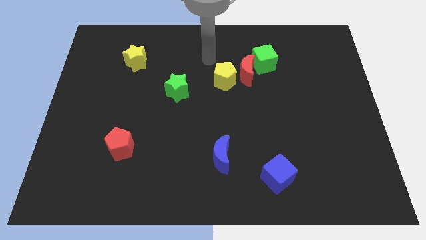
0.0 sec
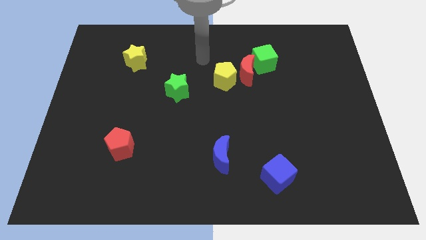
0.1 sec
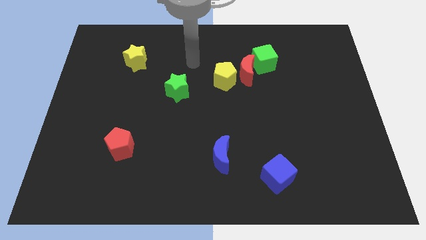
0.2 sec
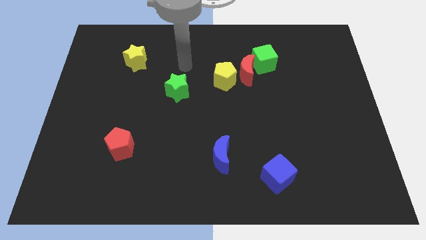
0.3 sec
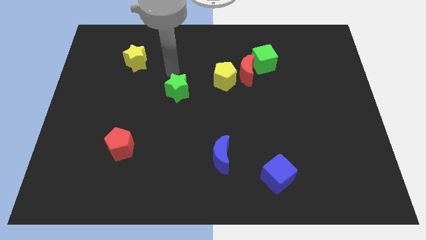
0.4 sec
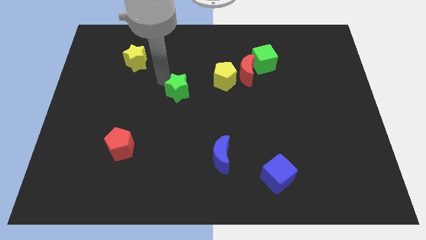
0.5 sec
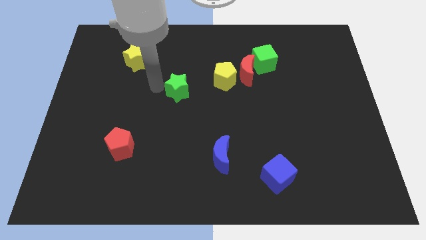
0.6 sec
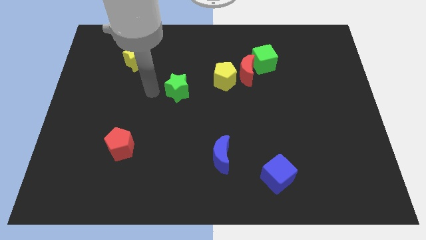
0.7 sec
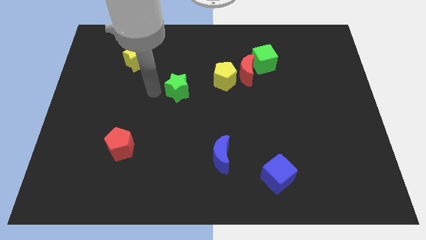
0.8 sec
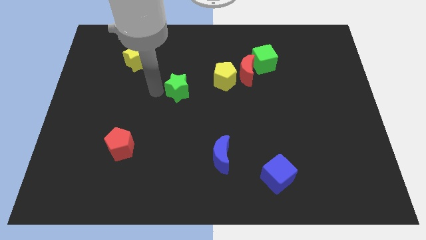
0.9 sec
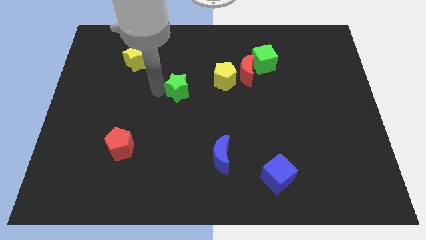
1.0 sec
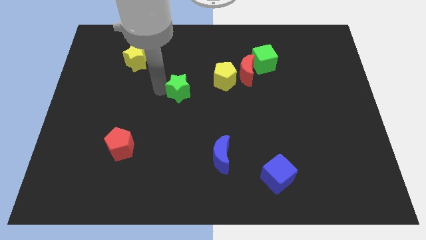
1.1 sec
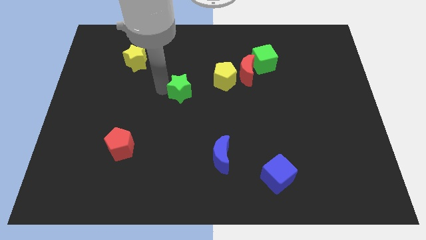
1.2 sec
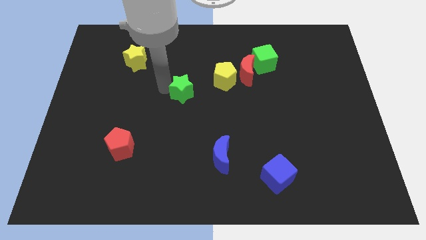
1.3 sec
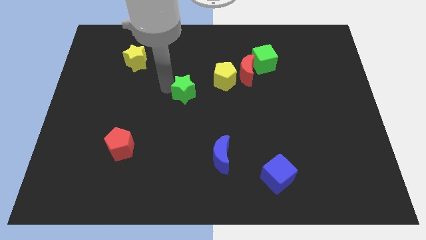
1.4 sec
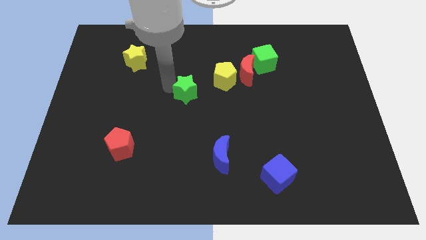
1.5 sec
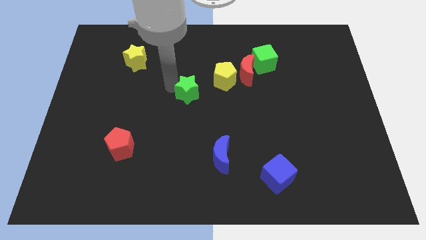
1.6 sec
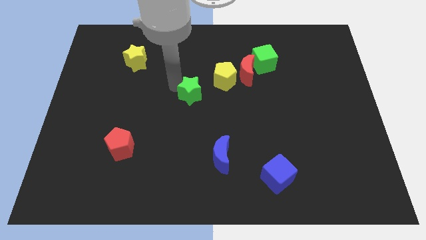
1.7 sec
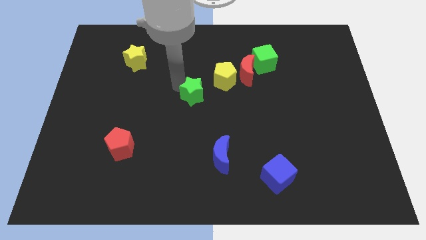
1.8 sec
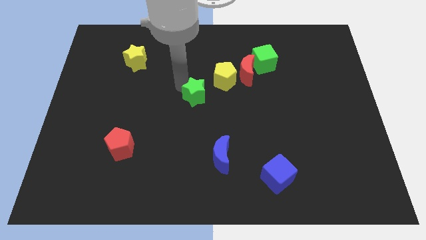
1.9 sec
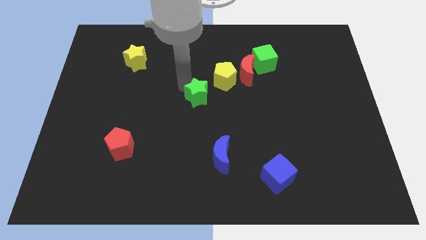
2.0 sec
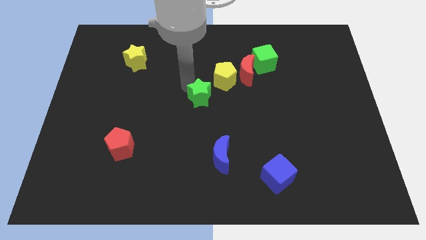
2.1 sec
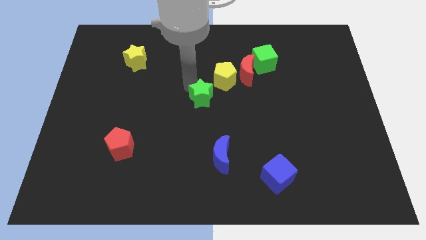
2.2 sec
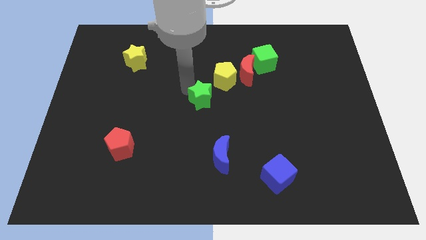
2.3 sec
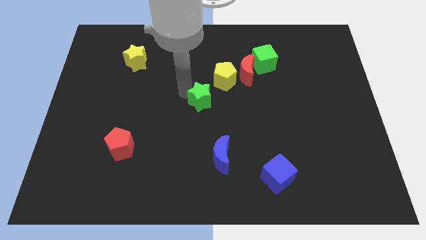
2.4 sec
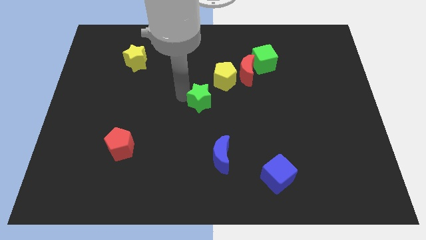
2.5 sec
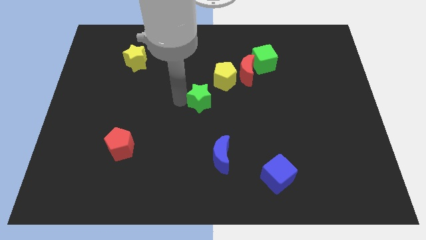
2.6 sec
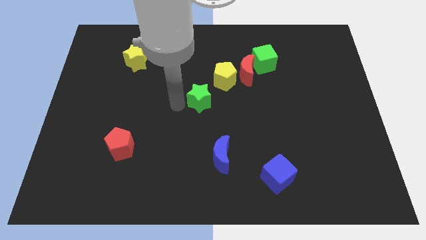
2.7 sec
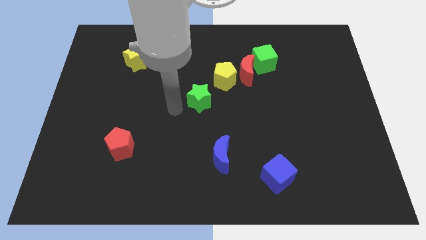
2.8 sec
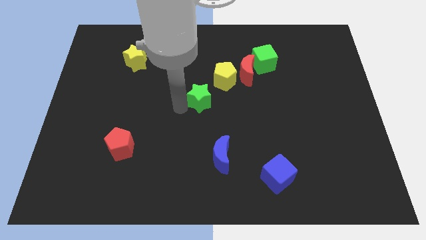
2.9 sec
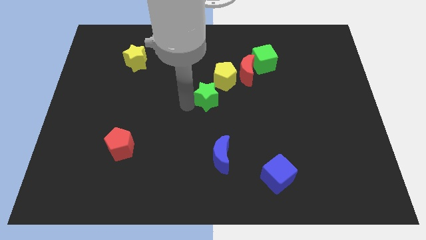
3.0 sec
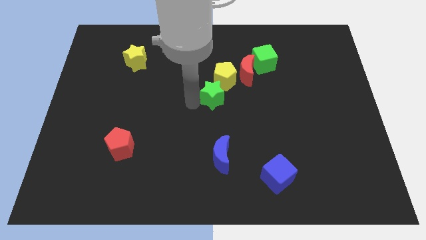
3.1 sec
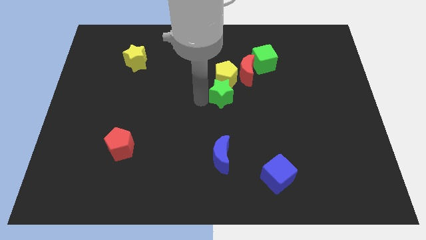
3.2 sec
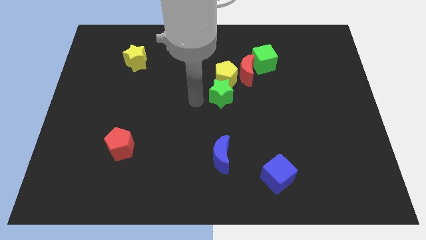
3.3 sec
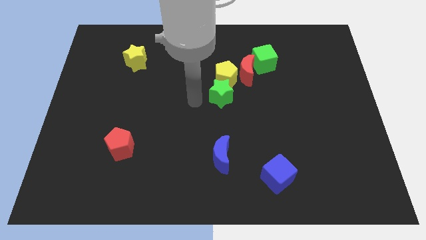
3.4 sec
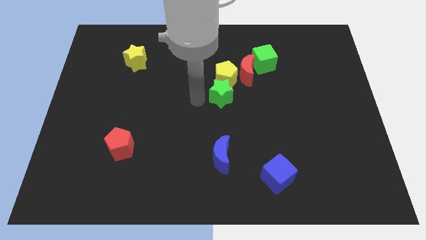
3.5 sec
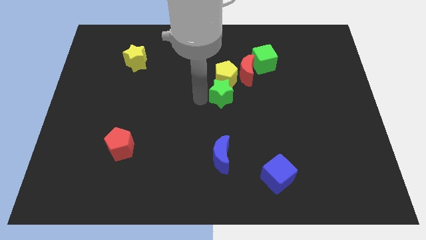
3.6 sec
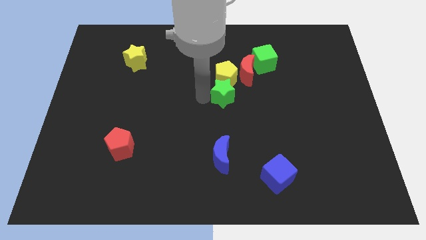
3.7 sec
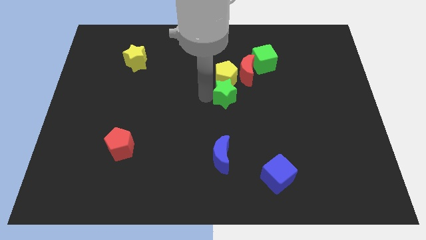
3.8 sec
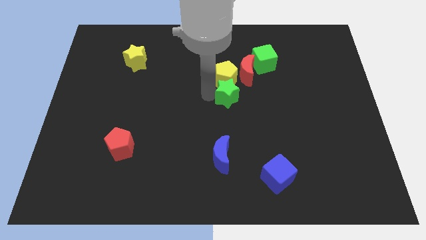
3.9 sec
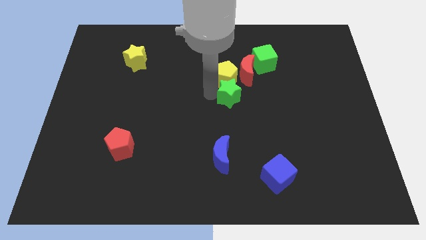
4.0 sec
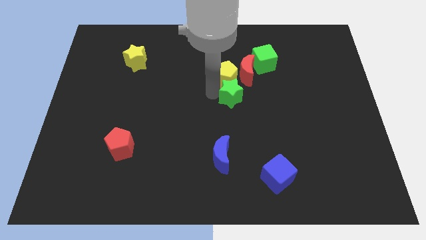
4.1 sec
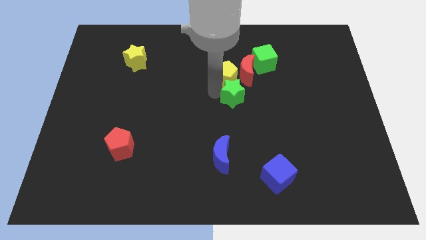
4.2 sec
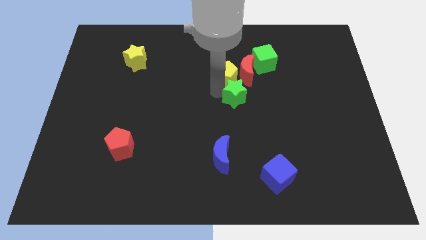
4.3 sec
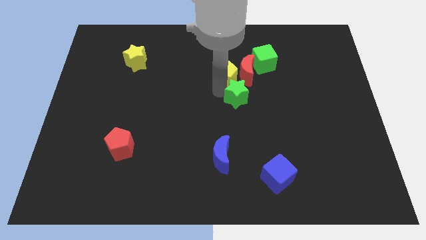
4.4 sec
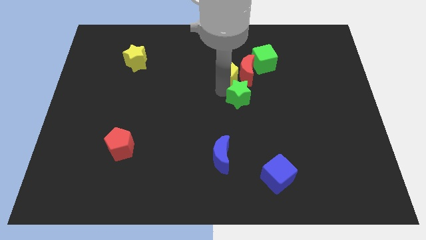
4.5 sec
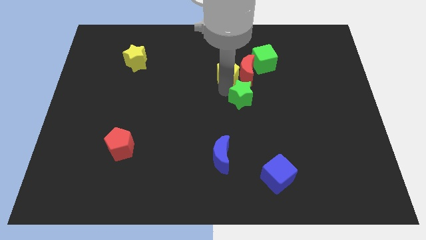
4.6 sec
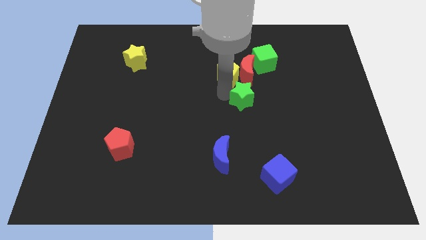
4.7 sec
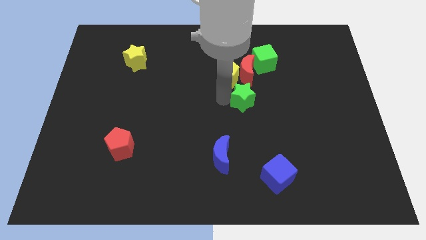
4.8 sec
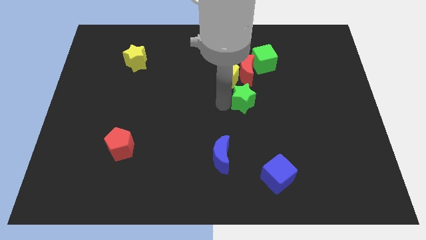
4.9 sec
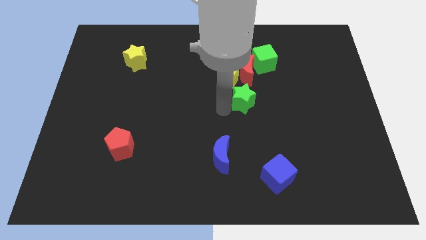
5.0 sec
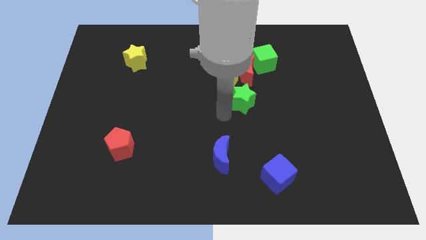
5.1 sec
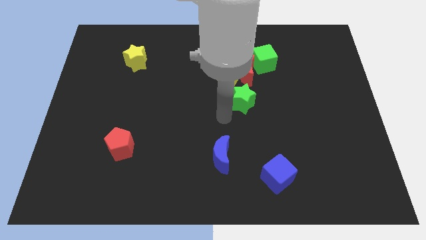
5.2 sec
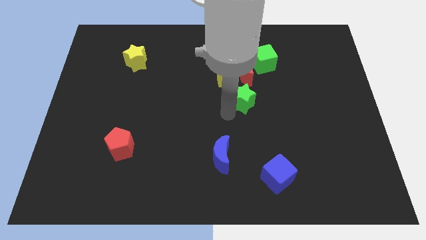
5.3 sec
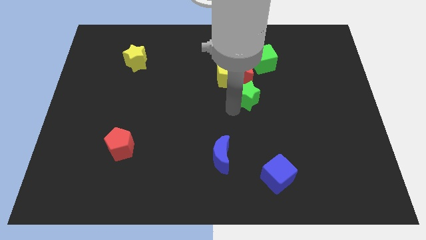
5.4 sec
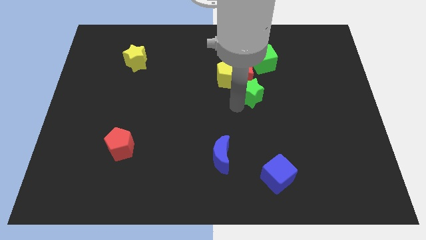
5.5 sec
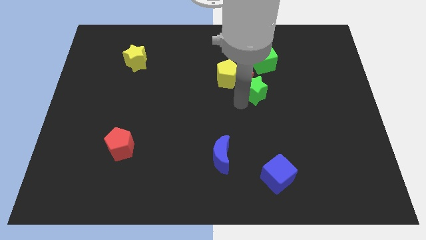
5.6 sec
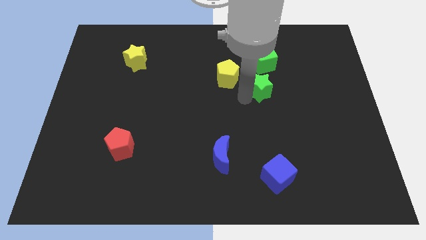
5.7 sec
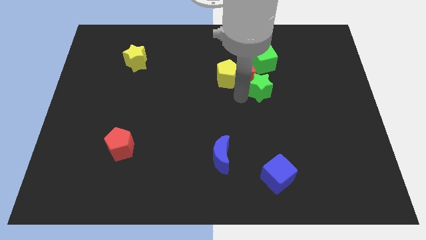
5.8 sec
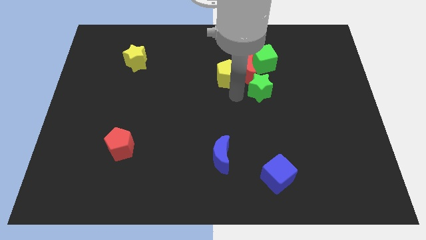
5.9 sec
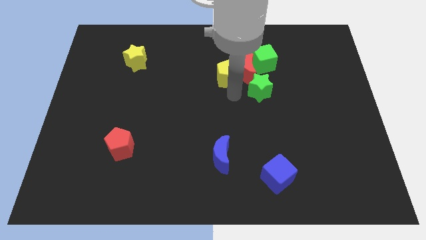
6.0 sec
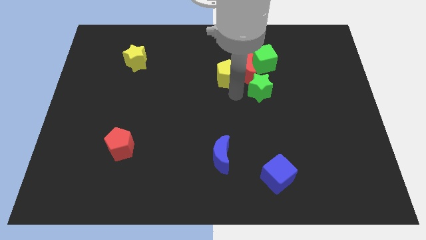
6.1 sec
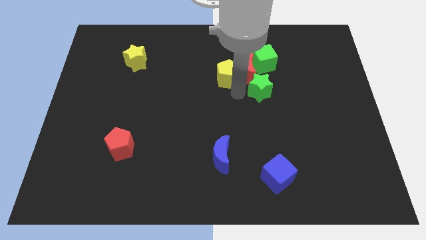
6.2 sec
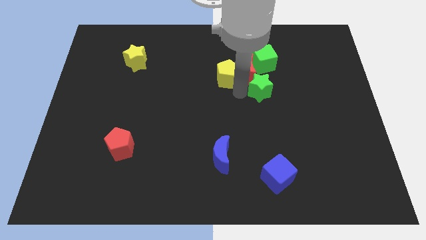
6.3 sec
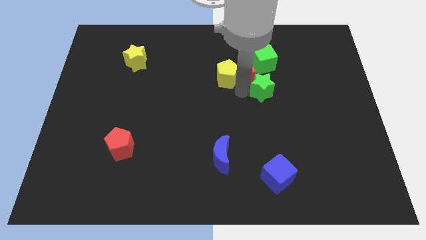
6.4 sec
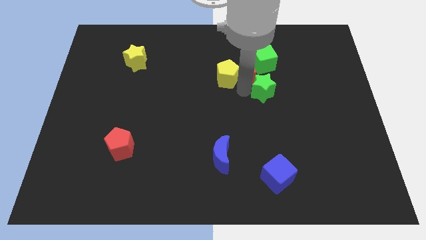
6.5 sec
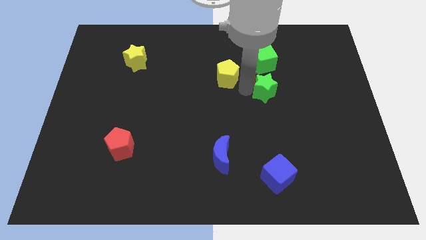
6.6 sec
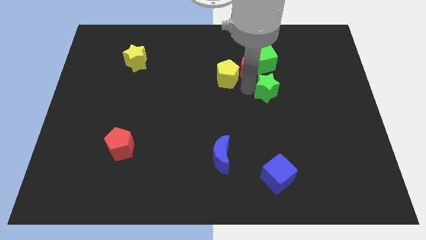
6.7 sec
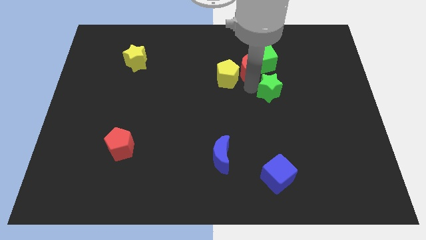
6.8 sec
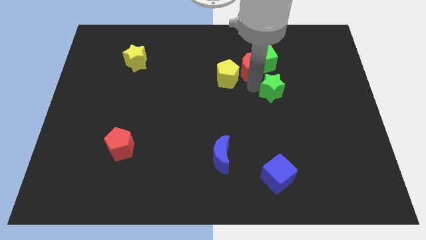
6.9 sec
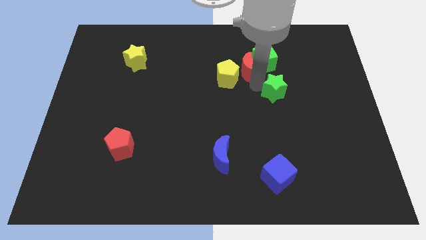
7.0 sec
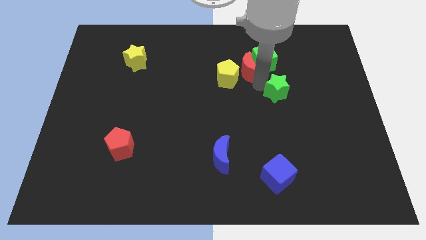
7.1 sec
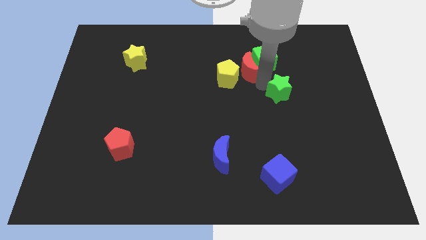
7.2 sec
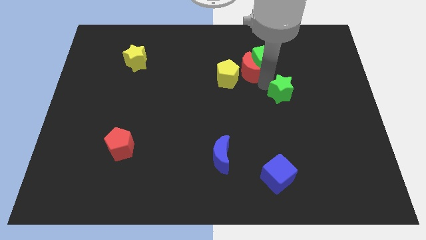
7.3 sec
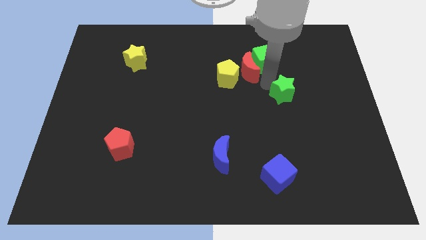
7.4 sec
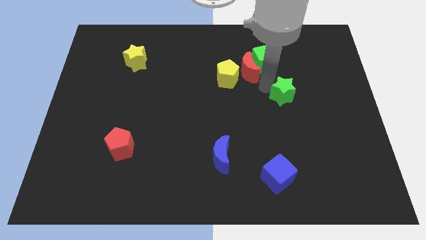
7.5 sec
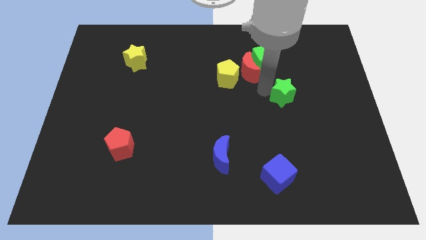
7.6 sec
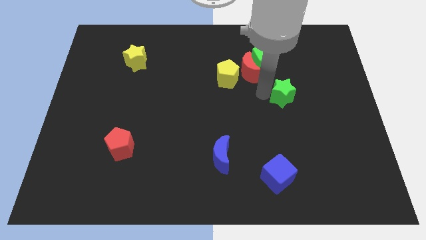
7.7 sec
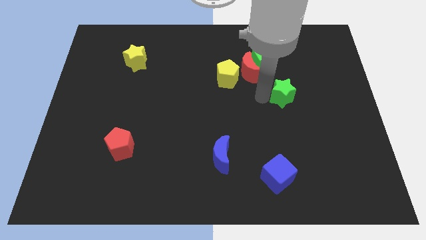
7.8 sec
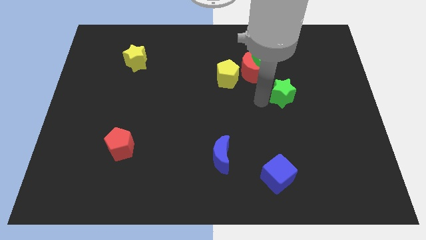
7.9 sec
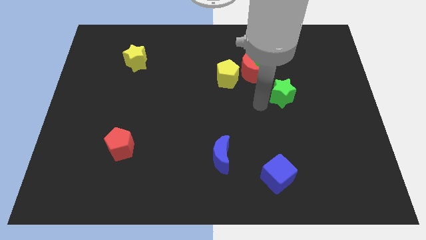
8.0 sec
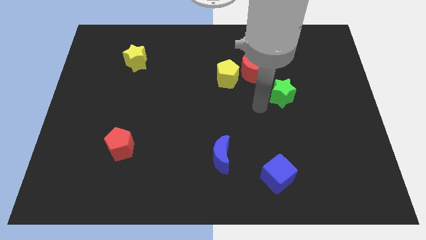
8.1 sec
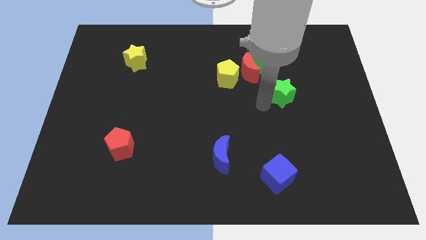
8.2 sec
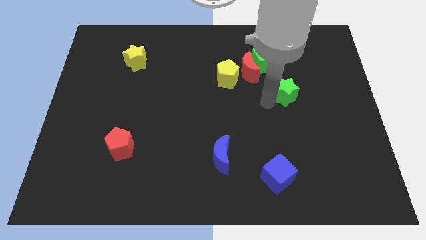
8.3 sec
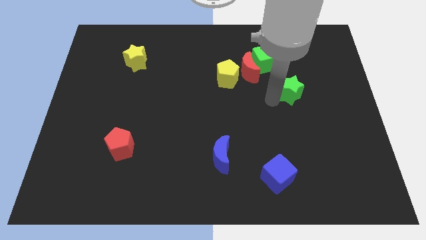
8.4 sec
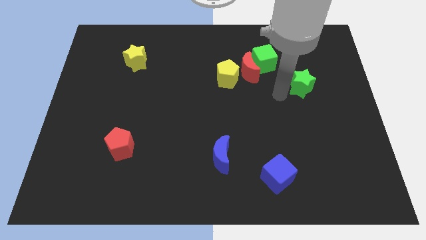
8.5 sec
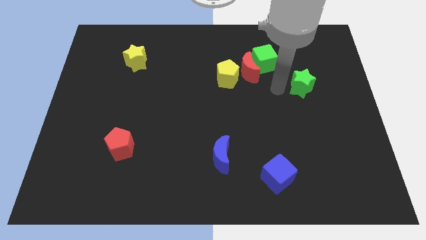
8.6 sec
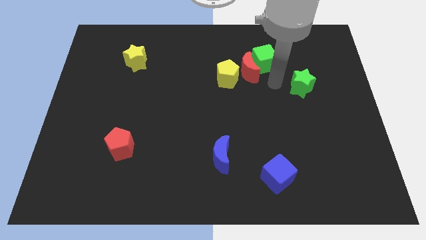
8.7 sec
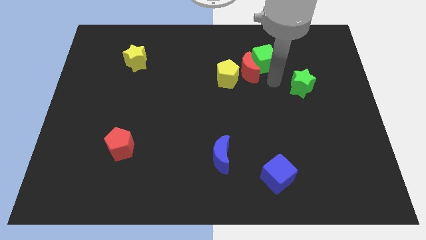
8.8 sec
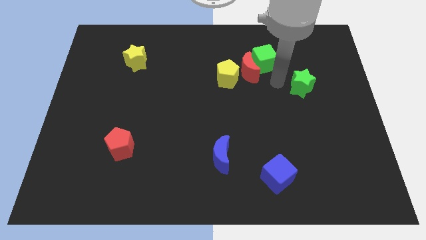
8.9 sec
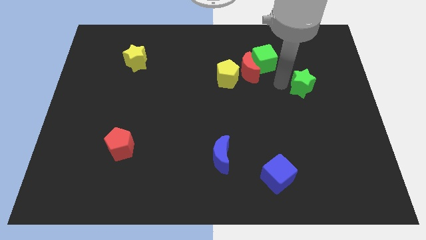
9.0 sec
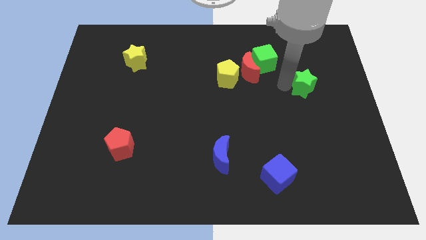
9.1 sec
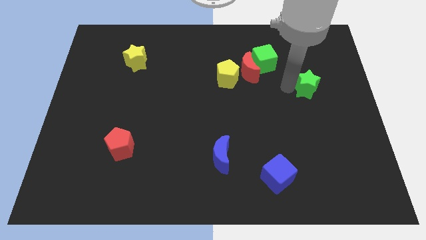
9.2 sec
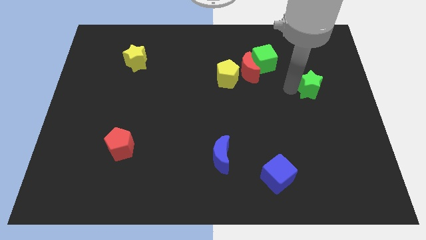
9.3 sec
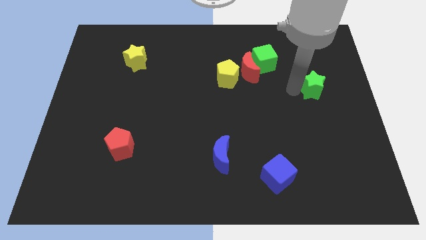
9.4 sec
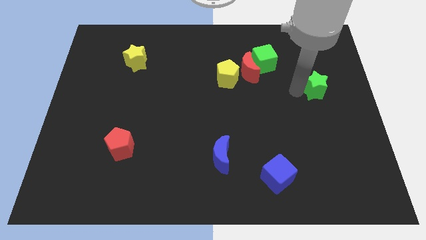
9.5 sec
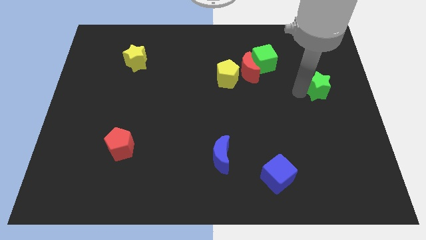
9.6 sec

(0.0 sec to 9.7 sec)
slide the green star to the right side
